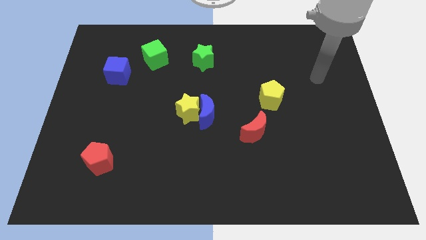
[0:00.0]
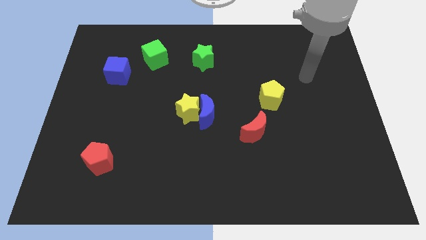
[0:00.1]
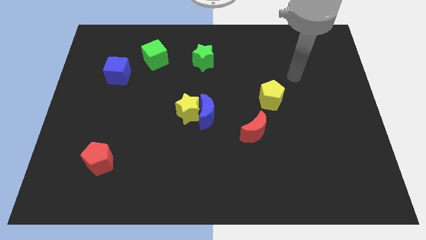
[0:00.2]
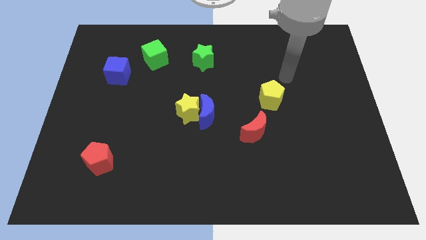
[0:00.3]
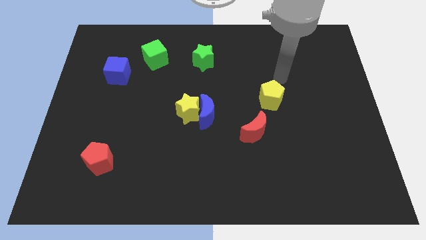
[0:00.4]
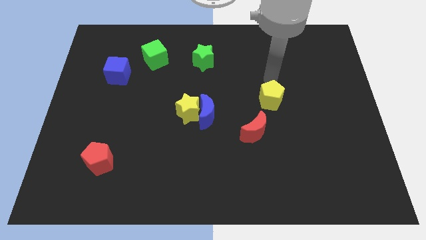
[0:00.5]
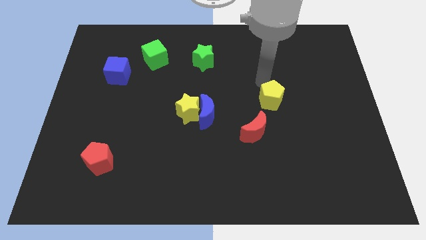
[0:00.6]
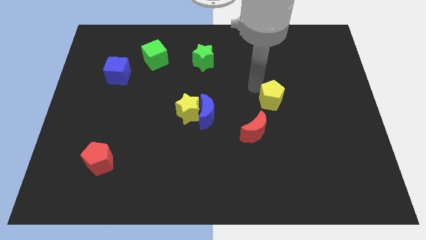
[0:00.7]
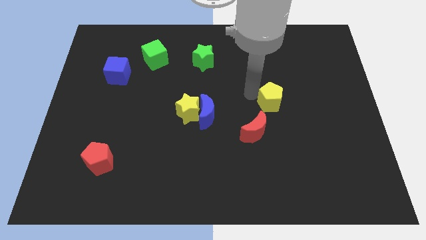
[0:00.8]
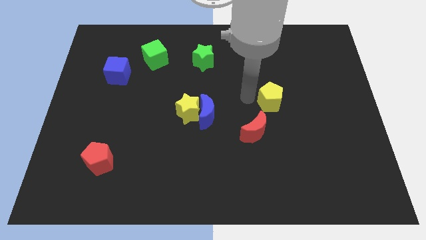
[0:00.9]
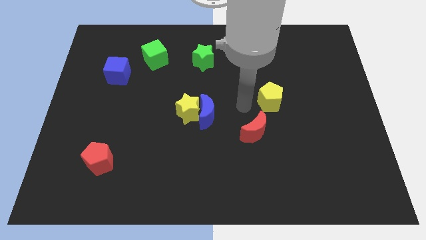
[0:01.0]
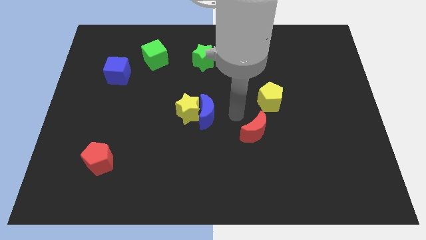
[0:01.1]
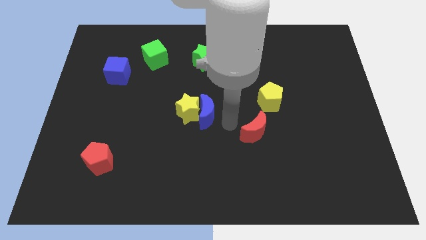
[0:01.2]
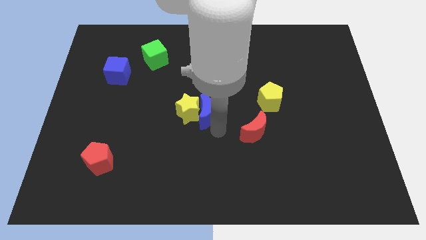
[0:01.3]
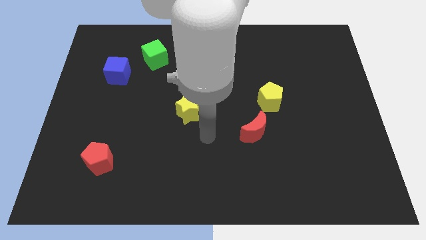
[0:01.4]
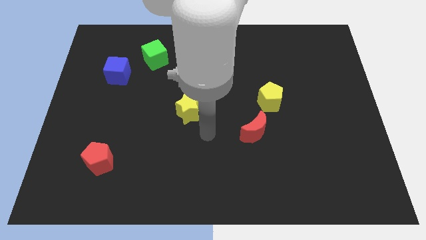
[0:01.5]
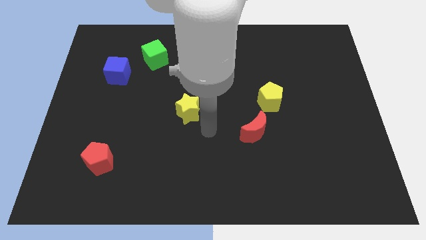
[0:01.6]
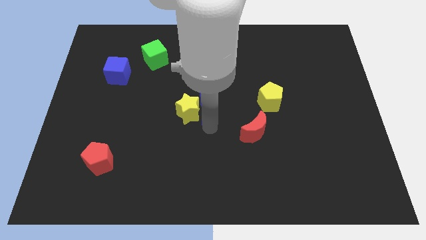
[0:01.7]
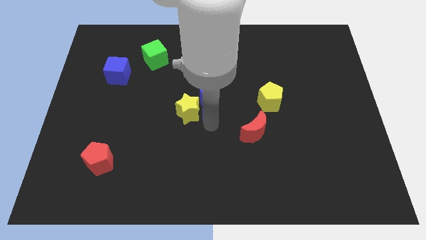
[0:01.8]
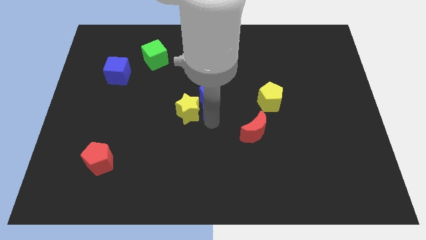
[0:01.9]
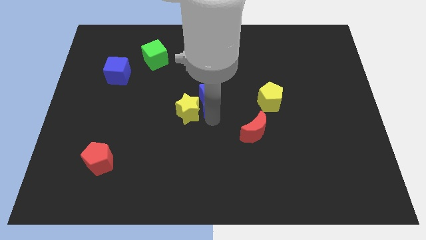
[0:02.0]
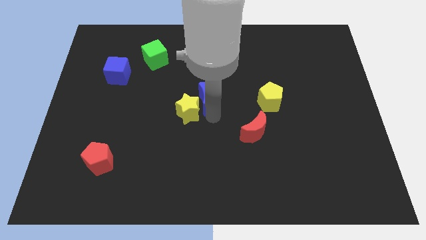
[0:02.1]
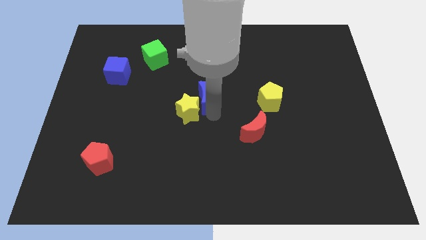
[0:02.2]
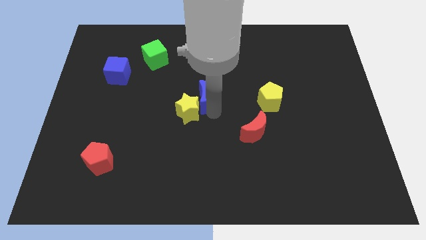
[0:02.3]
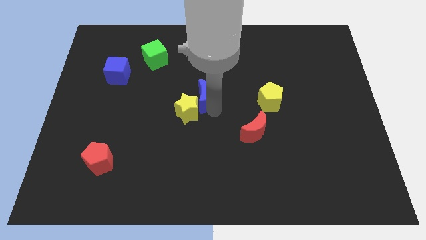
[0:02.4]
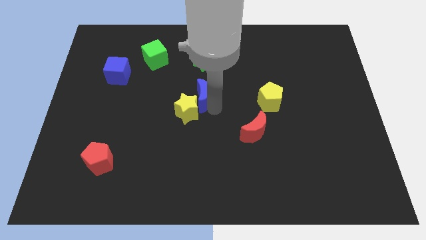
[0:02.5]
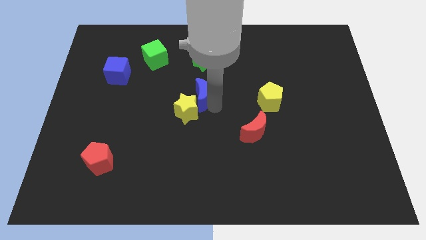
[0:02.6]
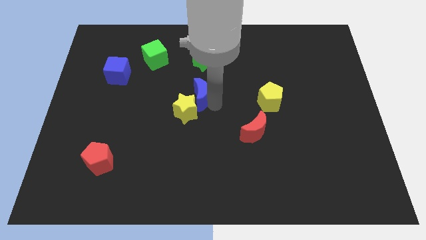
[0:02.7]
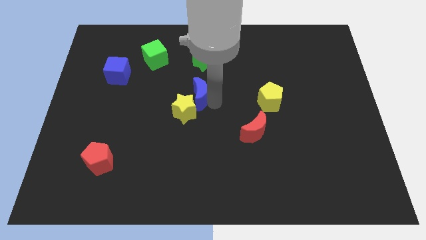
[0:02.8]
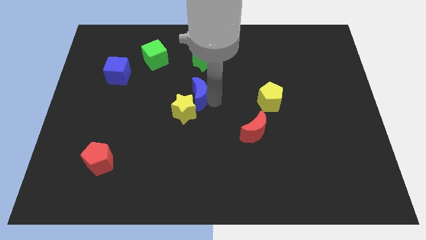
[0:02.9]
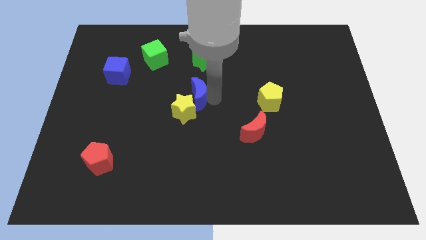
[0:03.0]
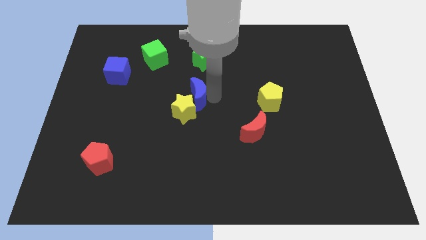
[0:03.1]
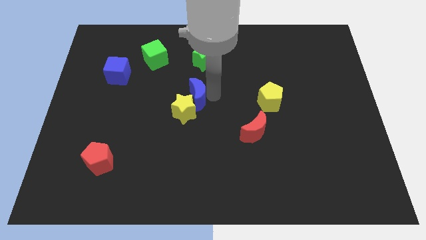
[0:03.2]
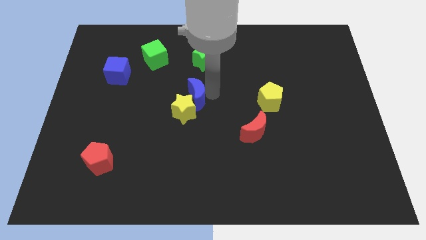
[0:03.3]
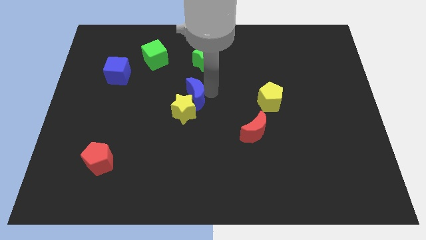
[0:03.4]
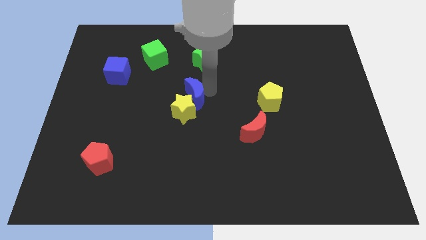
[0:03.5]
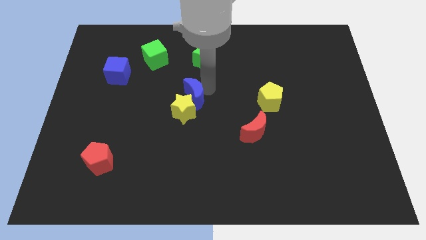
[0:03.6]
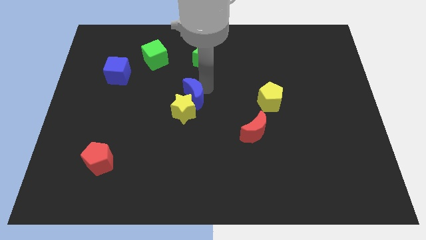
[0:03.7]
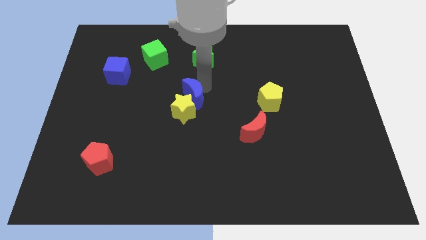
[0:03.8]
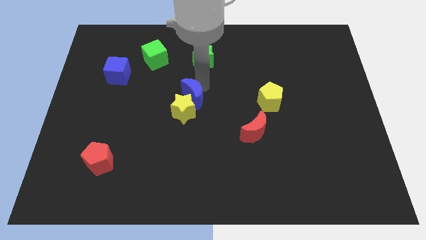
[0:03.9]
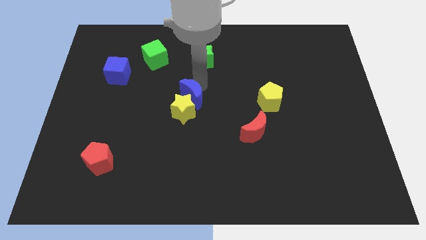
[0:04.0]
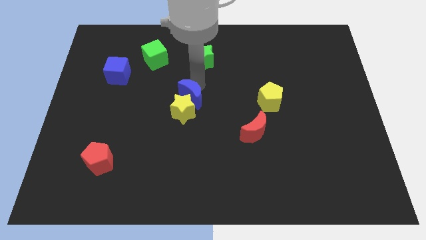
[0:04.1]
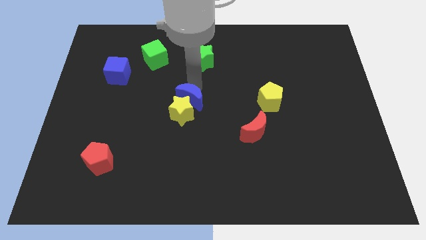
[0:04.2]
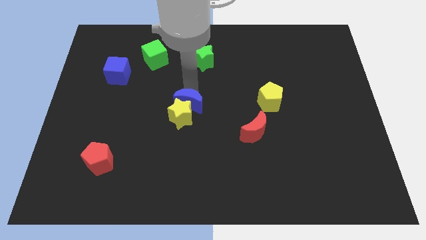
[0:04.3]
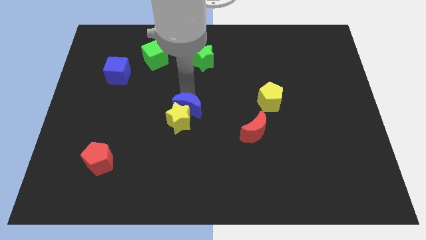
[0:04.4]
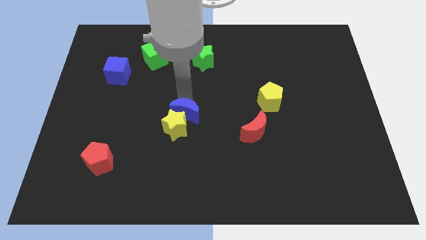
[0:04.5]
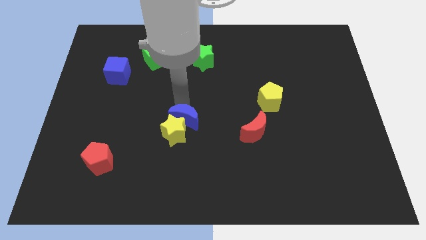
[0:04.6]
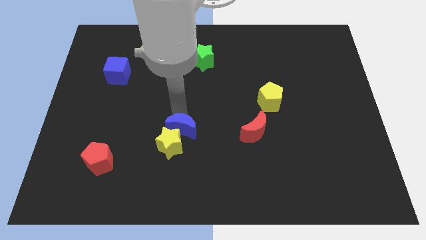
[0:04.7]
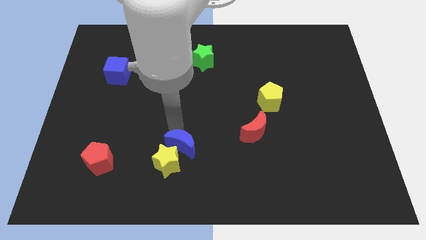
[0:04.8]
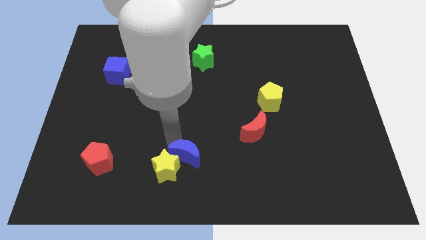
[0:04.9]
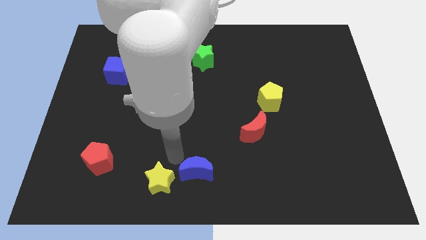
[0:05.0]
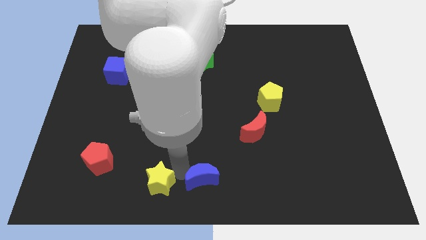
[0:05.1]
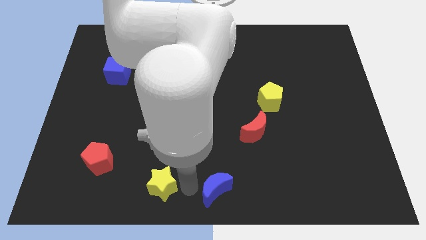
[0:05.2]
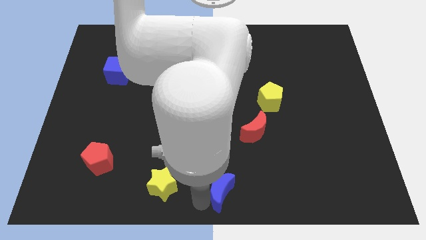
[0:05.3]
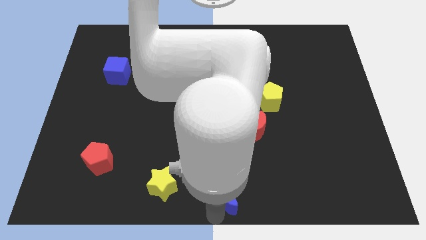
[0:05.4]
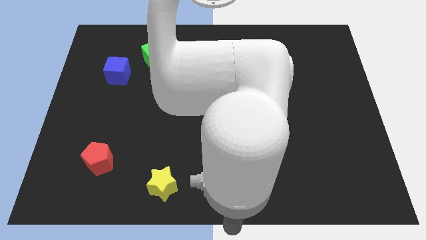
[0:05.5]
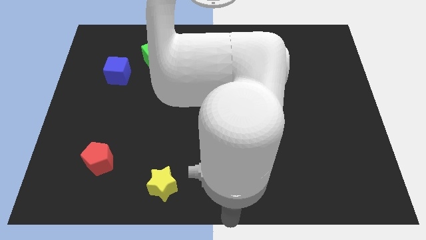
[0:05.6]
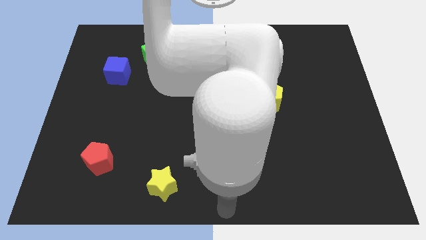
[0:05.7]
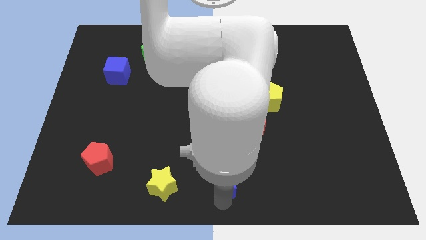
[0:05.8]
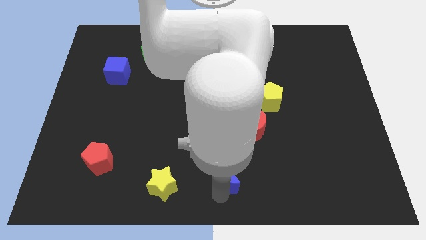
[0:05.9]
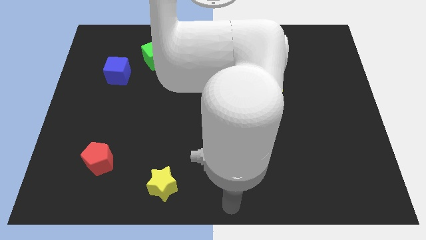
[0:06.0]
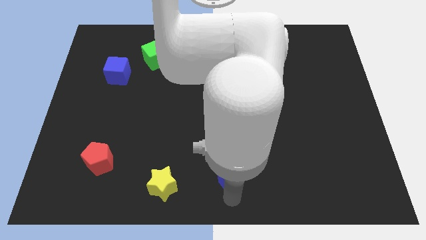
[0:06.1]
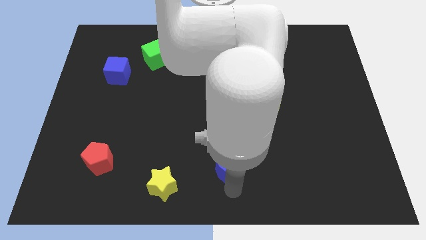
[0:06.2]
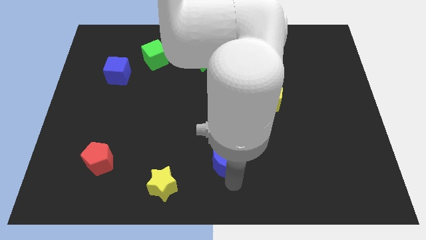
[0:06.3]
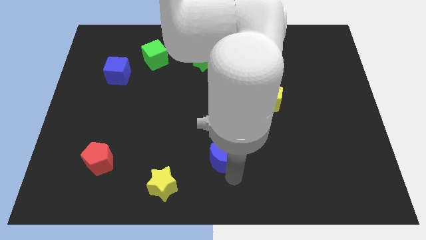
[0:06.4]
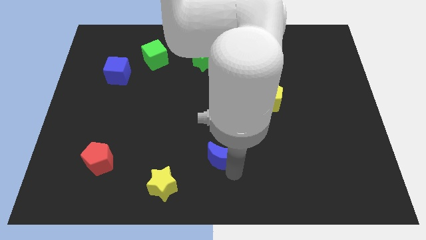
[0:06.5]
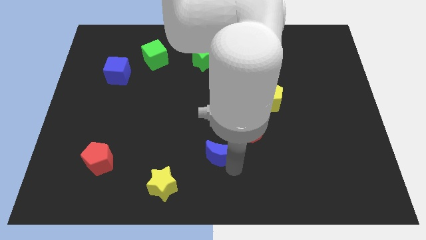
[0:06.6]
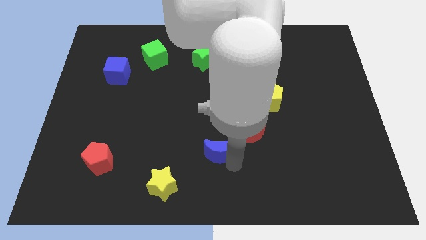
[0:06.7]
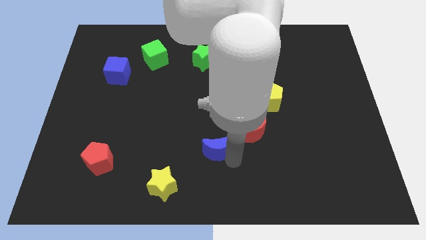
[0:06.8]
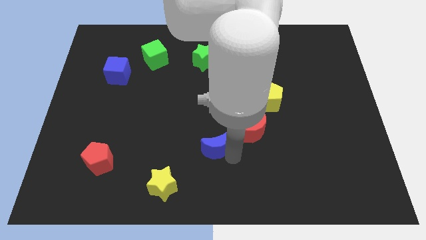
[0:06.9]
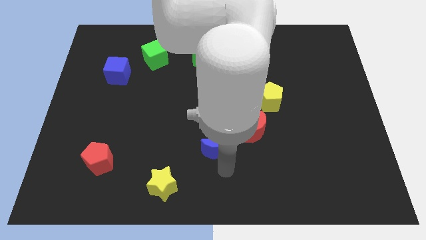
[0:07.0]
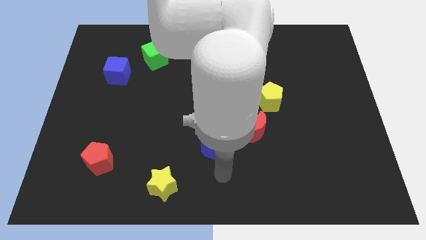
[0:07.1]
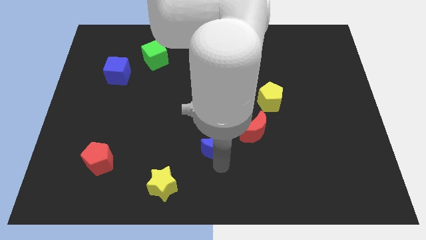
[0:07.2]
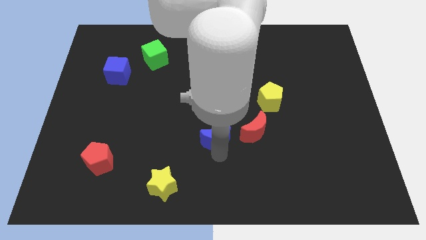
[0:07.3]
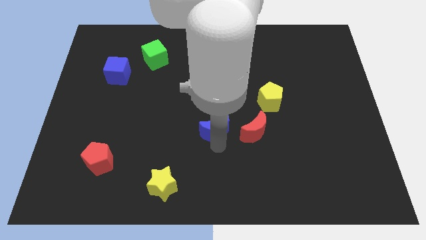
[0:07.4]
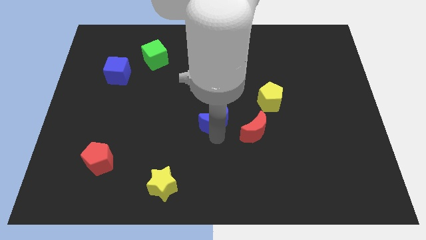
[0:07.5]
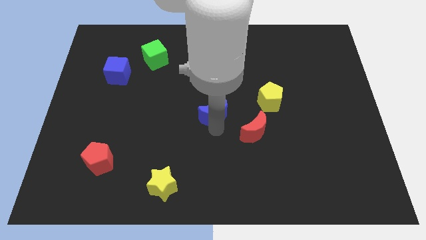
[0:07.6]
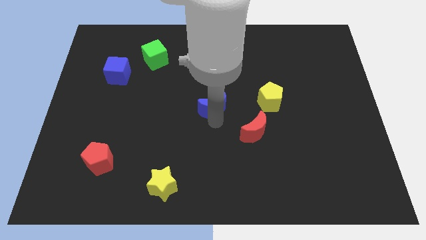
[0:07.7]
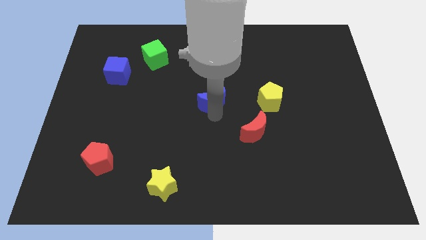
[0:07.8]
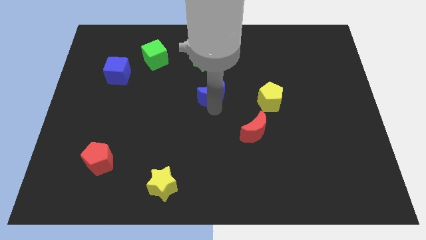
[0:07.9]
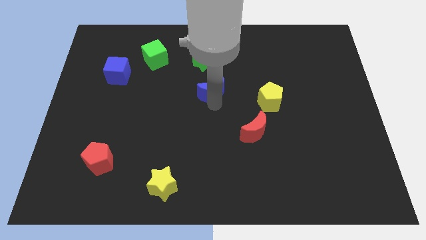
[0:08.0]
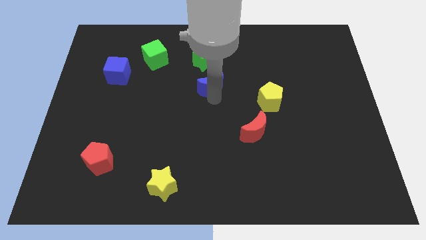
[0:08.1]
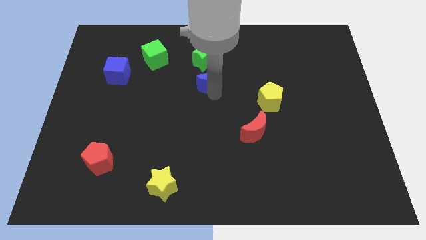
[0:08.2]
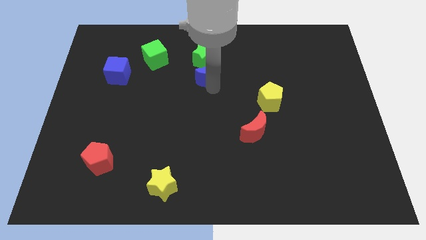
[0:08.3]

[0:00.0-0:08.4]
put the blue moon to the green star
